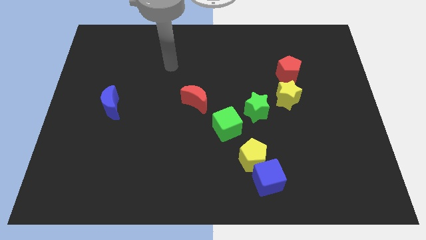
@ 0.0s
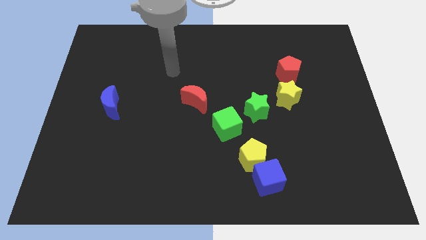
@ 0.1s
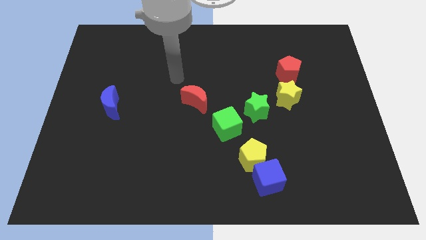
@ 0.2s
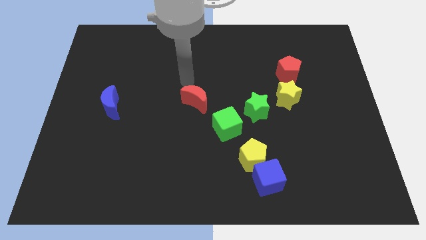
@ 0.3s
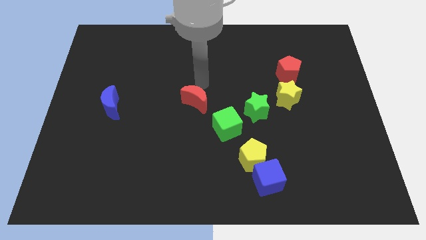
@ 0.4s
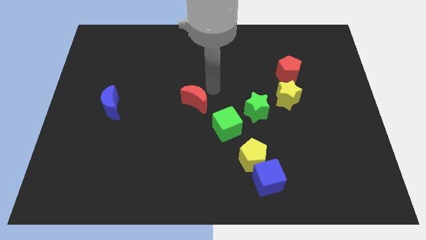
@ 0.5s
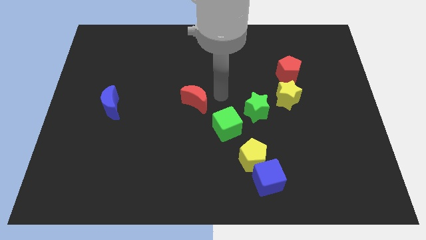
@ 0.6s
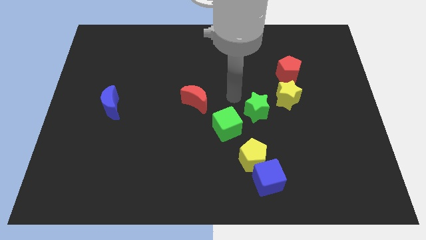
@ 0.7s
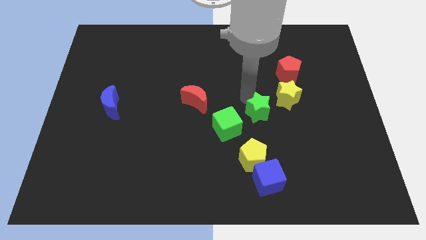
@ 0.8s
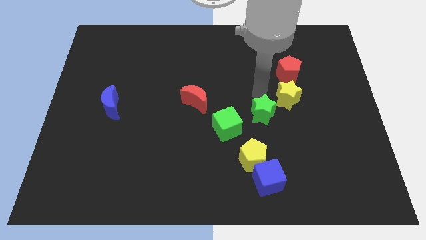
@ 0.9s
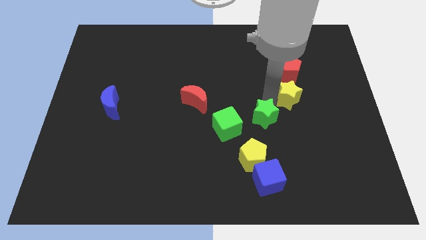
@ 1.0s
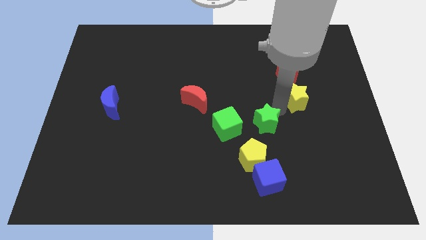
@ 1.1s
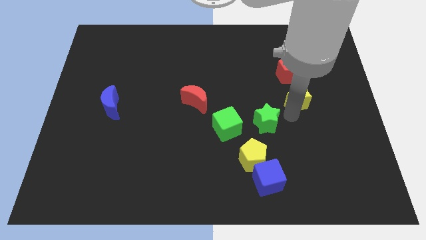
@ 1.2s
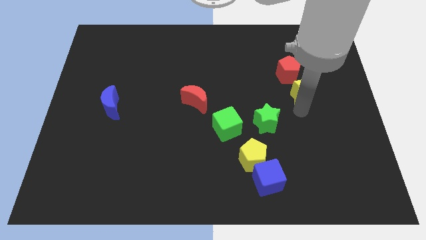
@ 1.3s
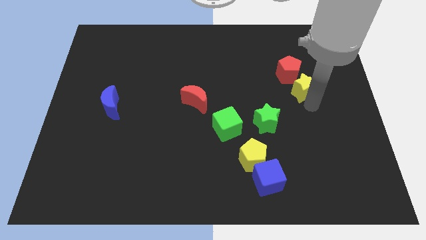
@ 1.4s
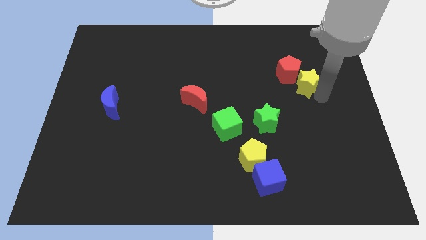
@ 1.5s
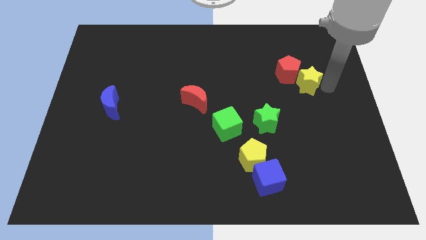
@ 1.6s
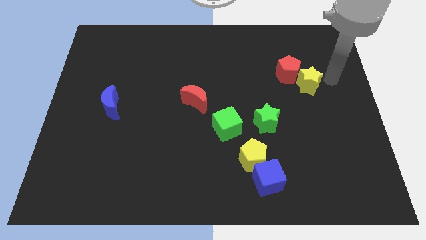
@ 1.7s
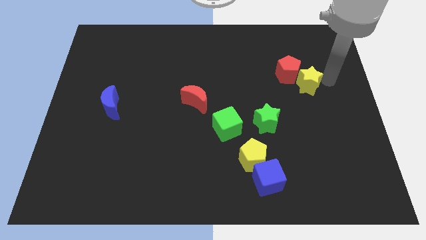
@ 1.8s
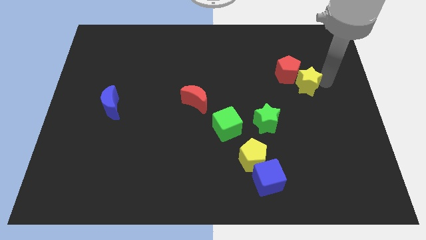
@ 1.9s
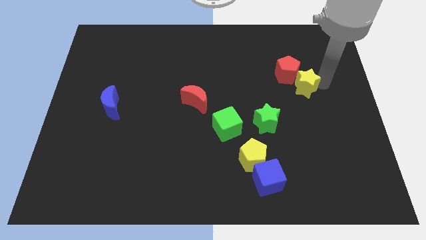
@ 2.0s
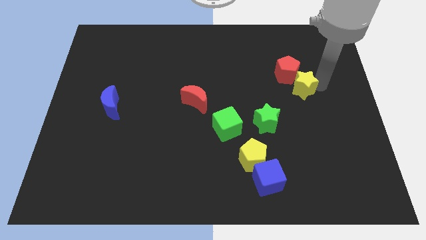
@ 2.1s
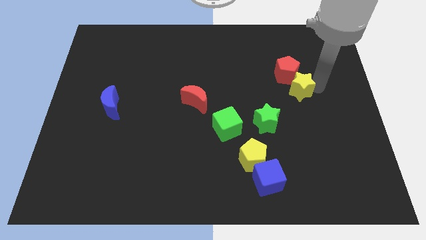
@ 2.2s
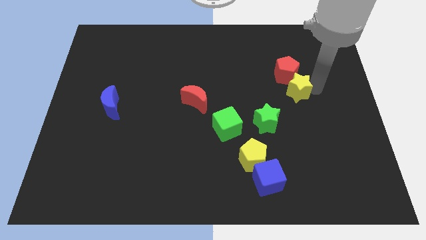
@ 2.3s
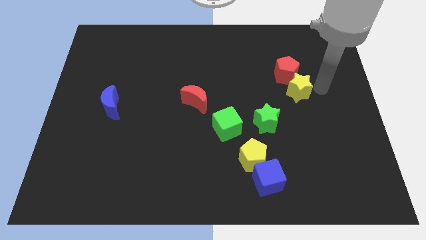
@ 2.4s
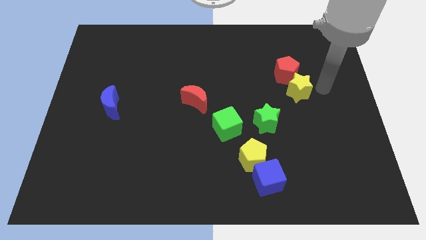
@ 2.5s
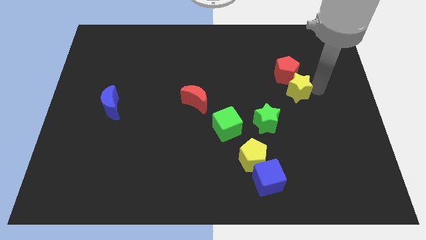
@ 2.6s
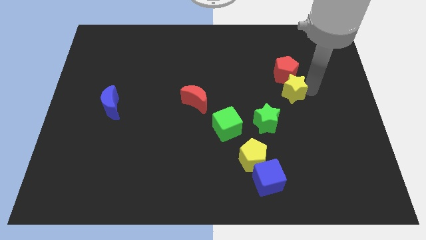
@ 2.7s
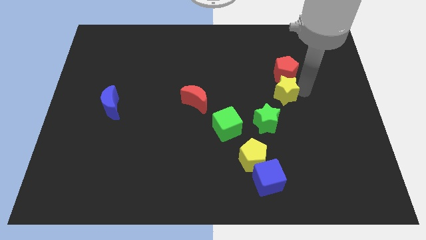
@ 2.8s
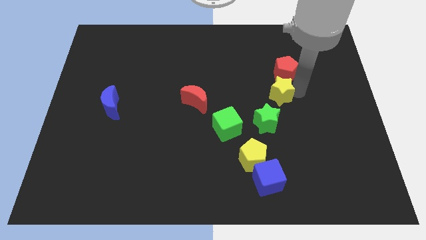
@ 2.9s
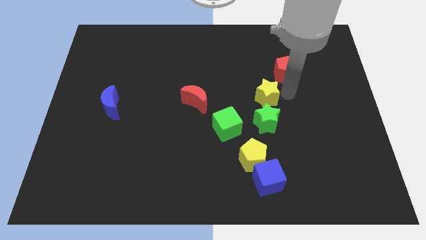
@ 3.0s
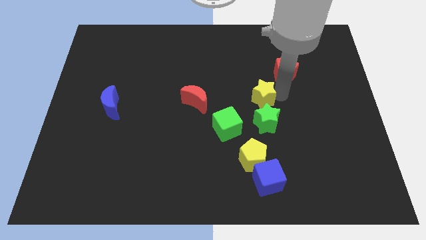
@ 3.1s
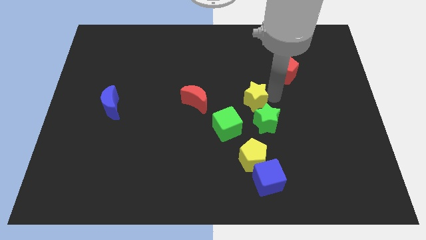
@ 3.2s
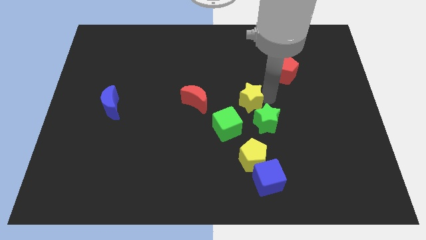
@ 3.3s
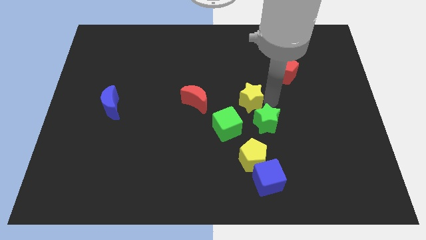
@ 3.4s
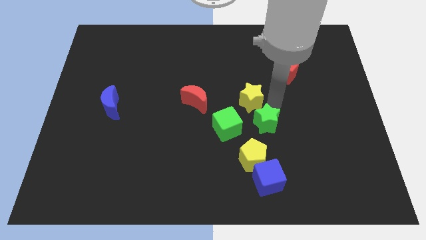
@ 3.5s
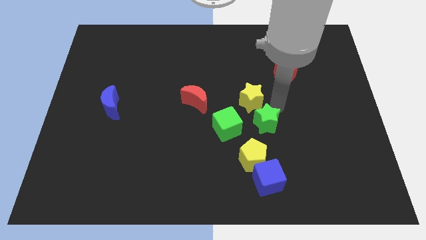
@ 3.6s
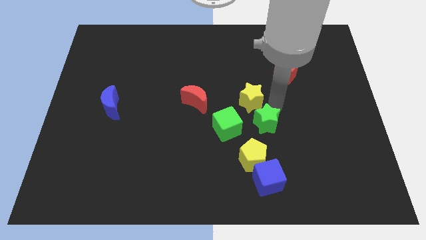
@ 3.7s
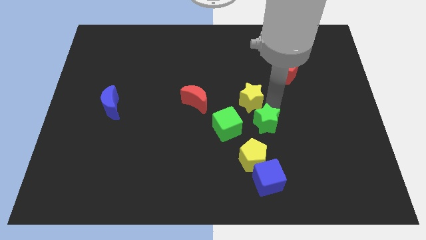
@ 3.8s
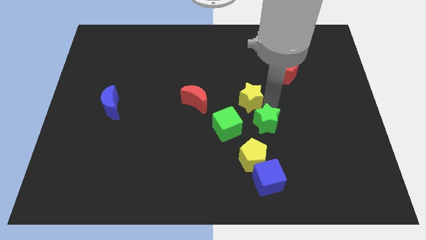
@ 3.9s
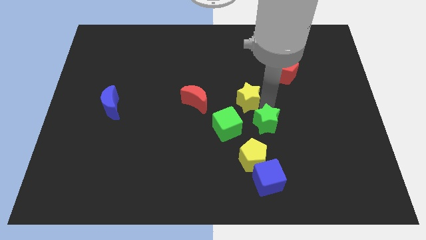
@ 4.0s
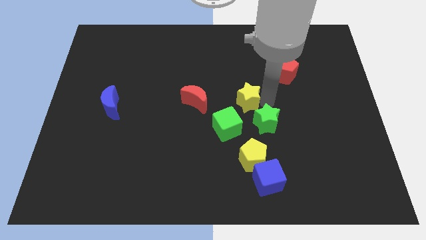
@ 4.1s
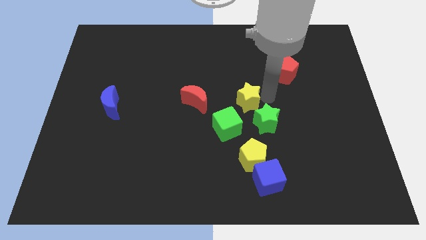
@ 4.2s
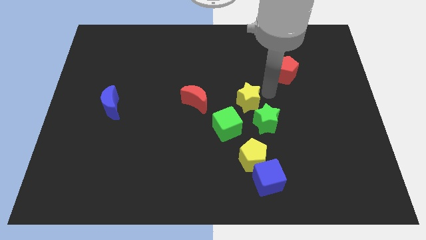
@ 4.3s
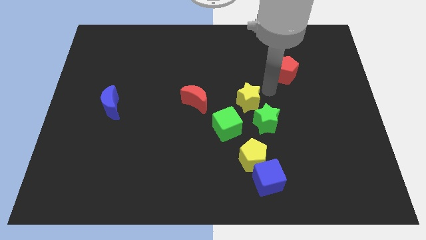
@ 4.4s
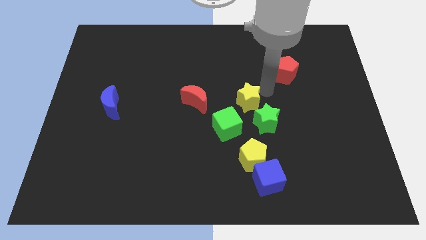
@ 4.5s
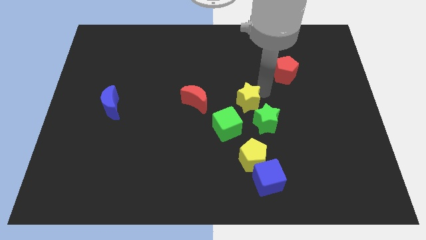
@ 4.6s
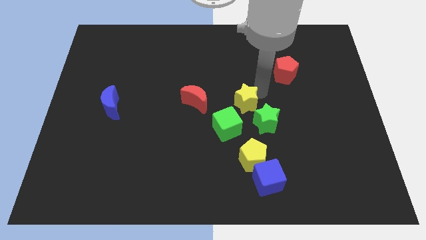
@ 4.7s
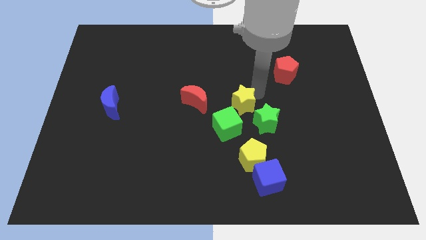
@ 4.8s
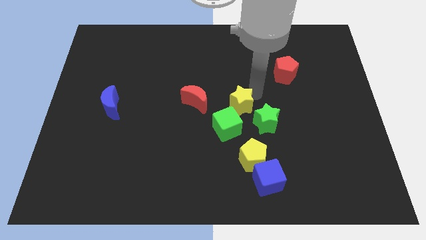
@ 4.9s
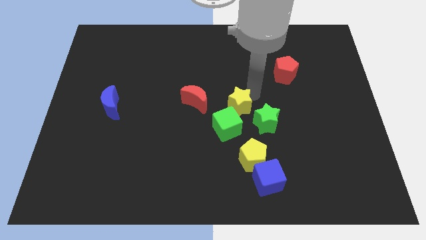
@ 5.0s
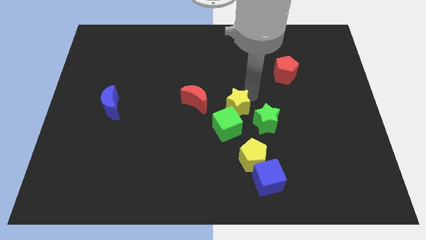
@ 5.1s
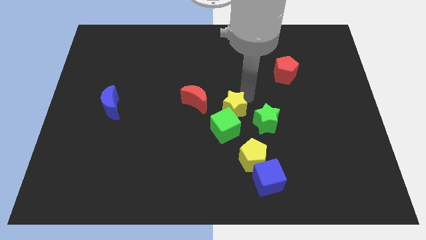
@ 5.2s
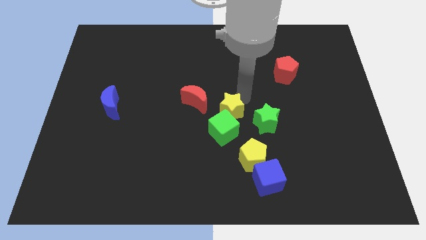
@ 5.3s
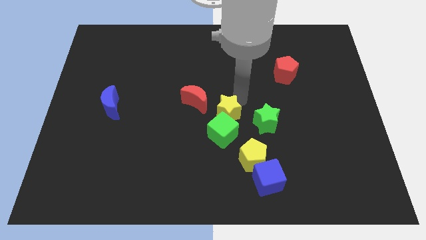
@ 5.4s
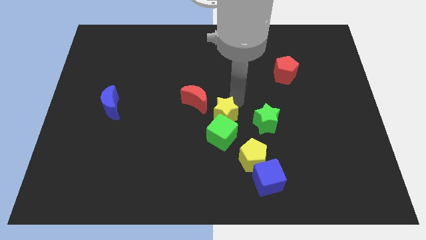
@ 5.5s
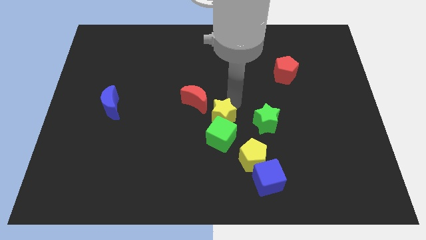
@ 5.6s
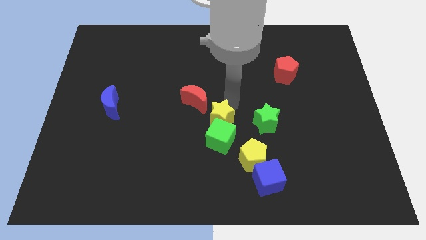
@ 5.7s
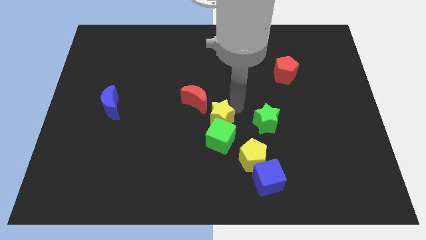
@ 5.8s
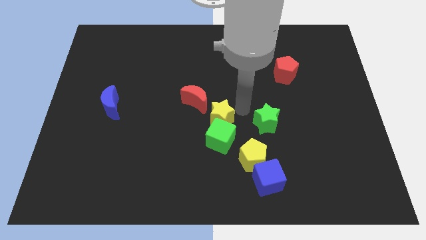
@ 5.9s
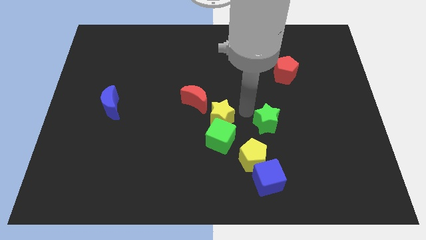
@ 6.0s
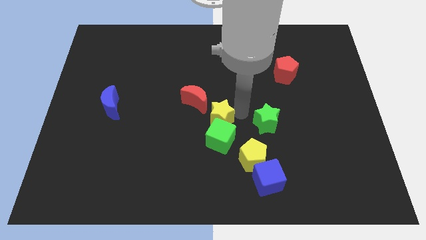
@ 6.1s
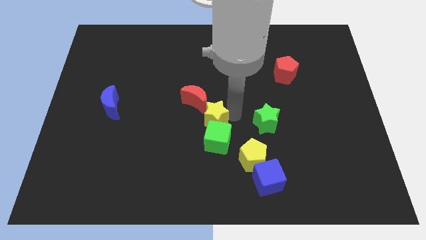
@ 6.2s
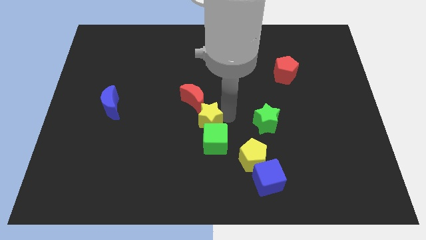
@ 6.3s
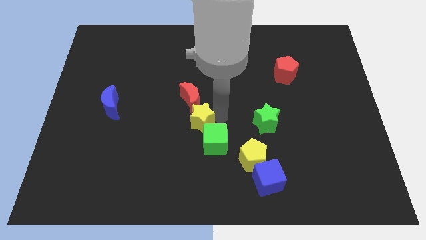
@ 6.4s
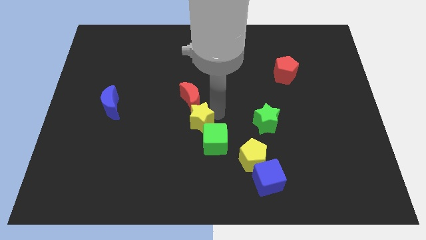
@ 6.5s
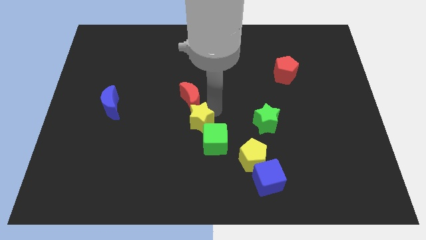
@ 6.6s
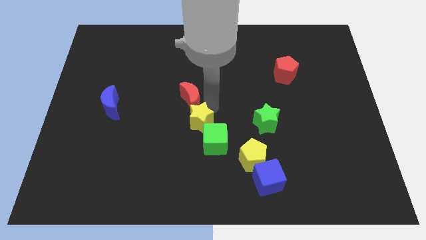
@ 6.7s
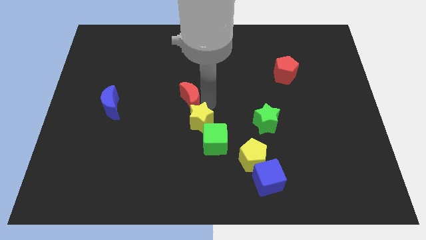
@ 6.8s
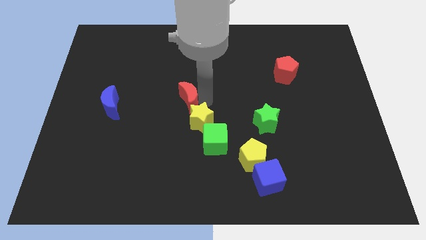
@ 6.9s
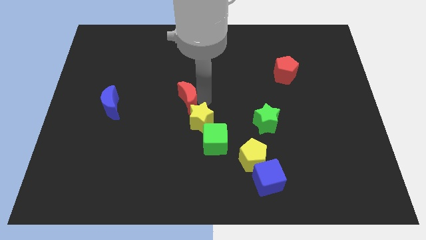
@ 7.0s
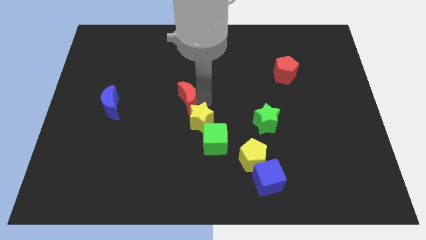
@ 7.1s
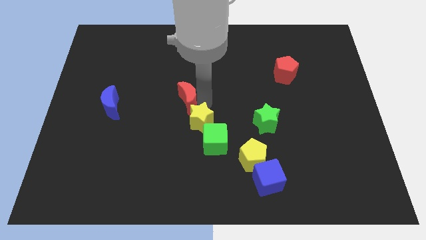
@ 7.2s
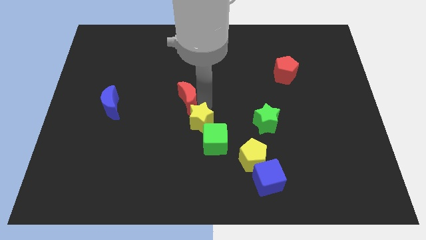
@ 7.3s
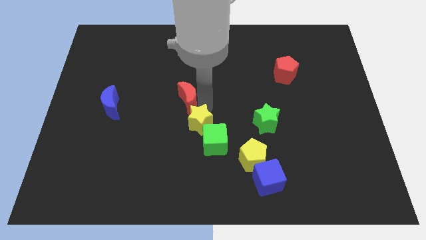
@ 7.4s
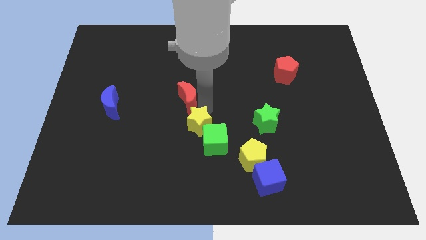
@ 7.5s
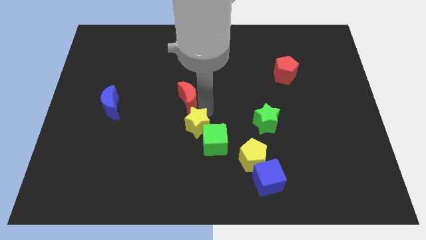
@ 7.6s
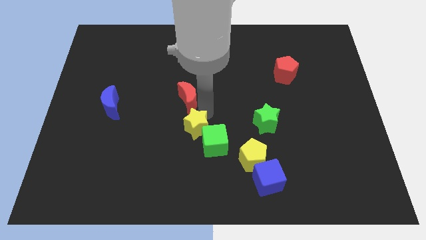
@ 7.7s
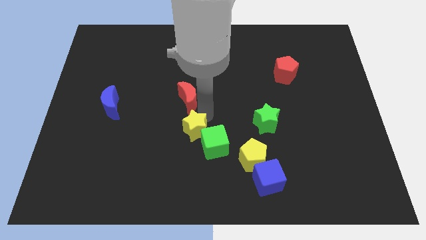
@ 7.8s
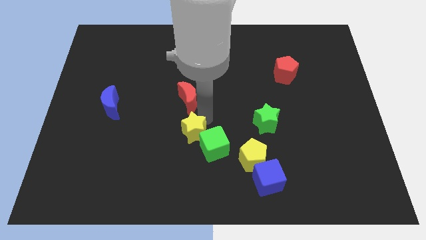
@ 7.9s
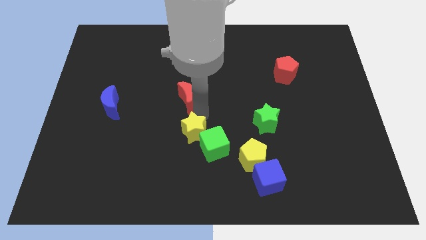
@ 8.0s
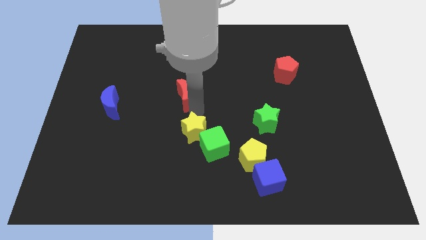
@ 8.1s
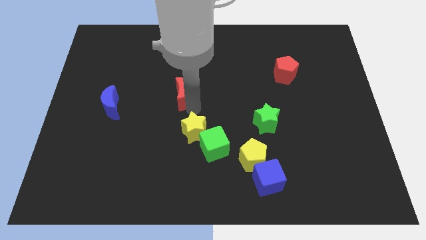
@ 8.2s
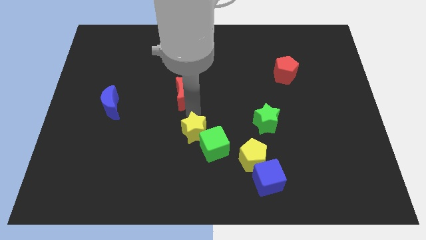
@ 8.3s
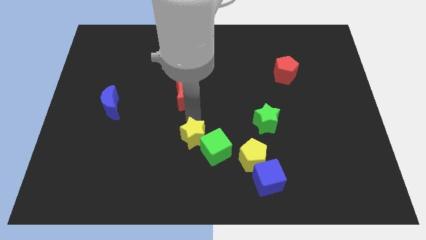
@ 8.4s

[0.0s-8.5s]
move the yellow star down and then to the left
